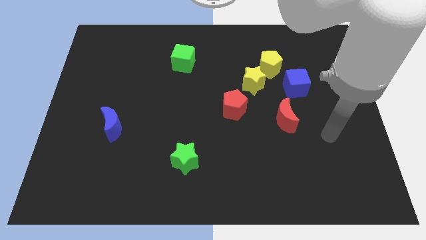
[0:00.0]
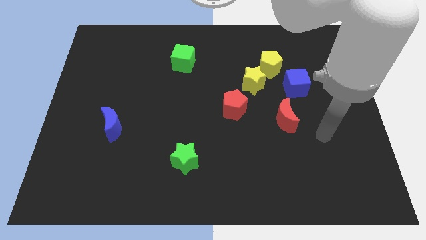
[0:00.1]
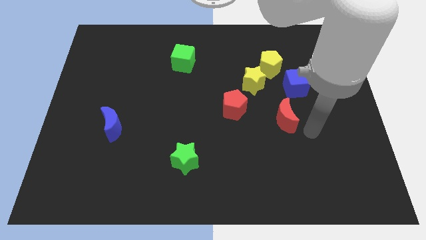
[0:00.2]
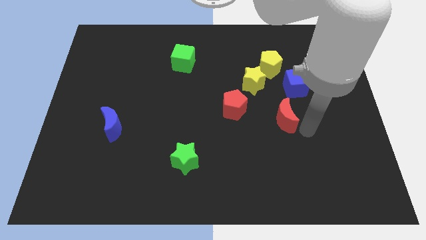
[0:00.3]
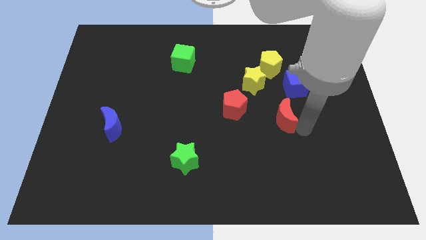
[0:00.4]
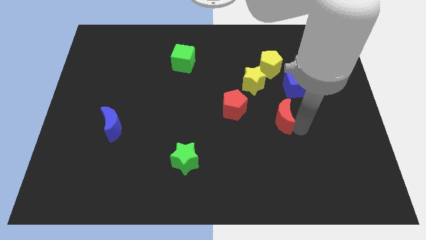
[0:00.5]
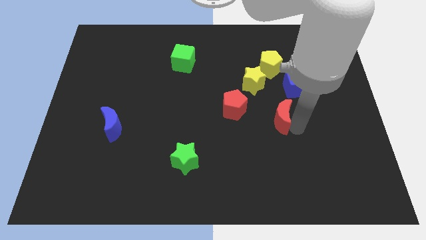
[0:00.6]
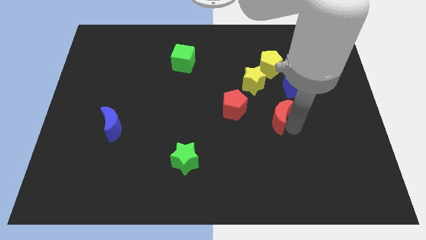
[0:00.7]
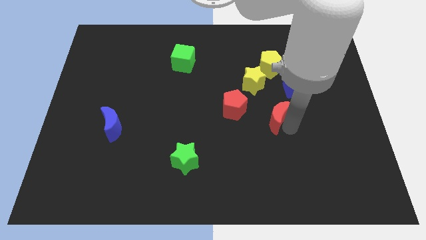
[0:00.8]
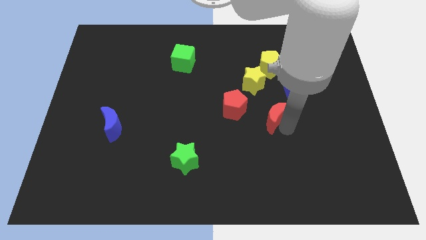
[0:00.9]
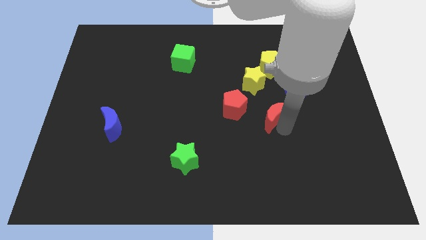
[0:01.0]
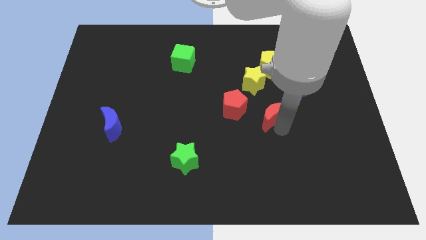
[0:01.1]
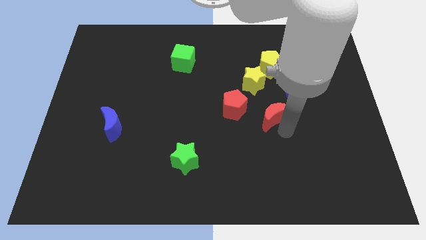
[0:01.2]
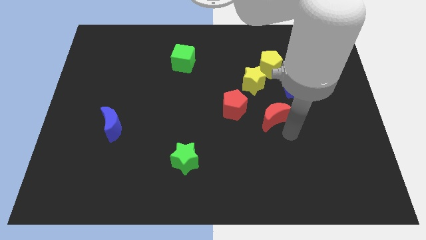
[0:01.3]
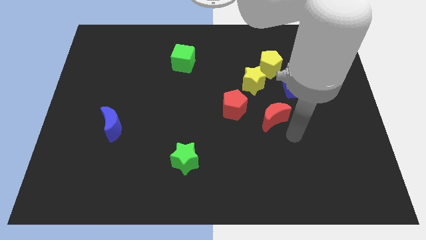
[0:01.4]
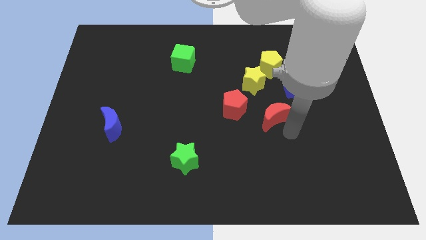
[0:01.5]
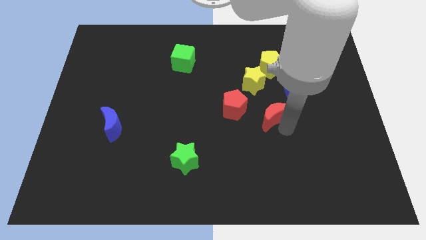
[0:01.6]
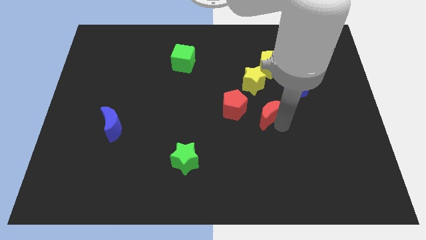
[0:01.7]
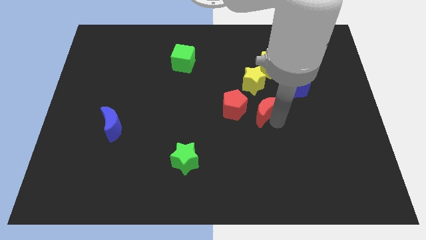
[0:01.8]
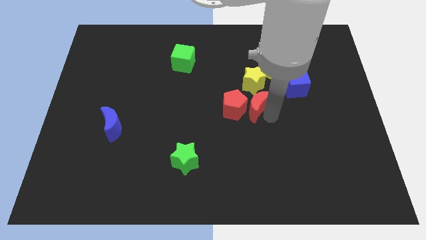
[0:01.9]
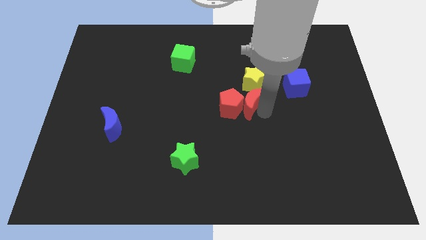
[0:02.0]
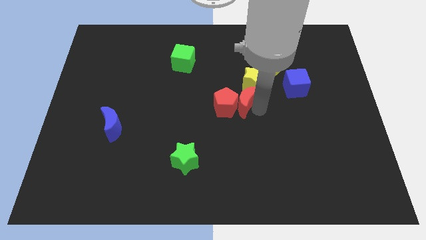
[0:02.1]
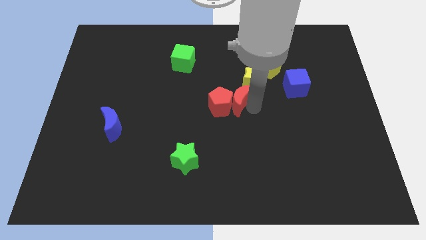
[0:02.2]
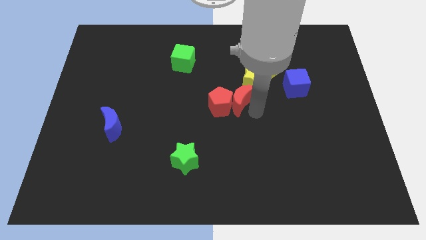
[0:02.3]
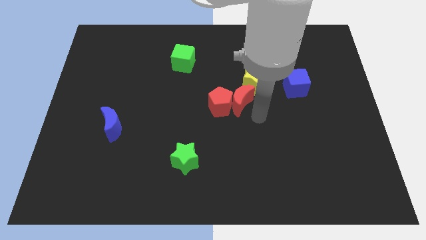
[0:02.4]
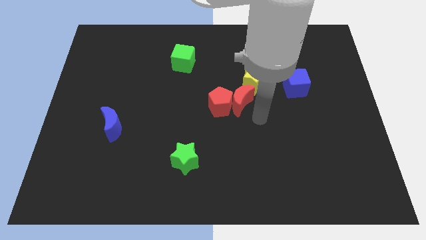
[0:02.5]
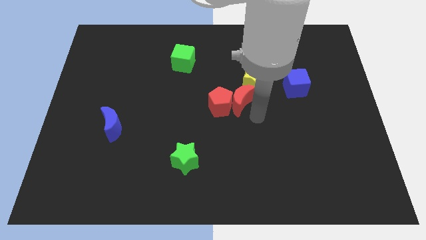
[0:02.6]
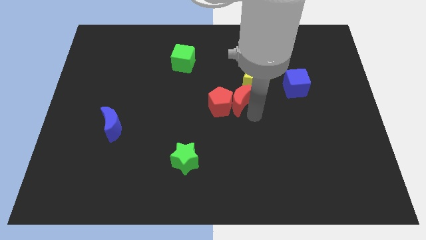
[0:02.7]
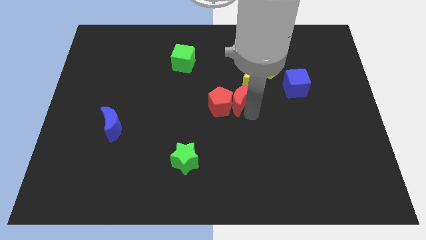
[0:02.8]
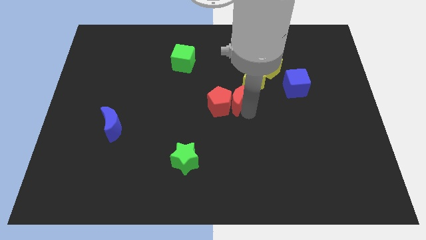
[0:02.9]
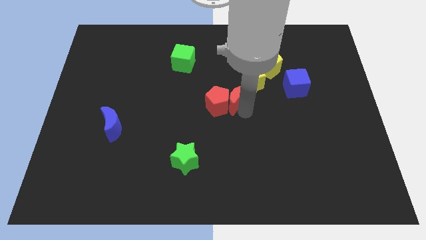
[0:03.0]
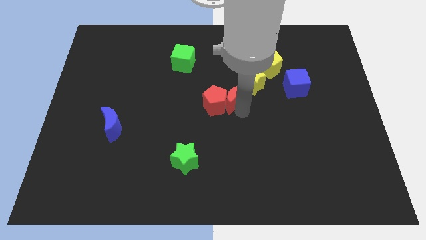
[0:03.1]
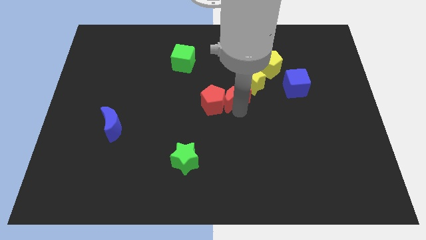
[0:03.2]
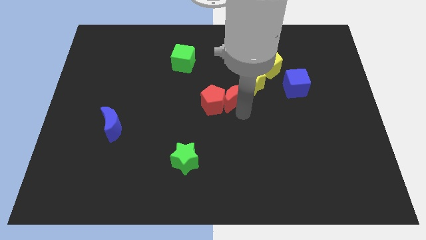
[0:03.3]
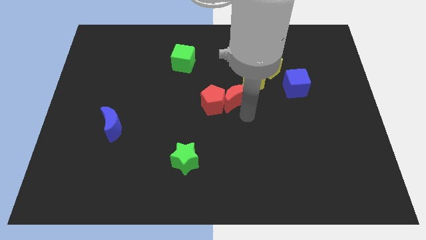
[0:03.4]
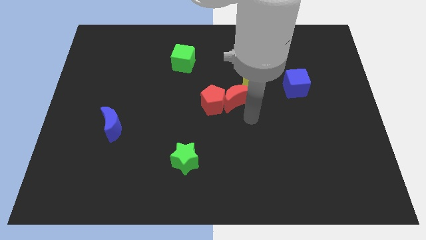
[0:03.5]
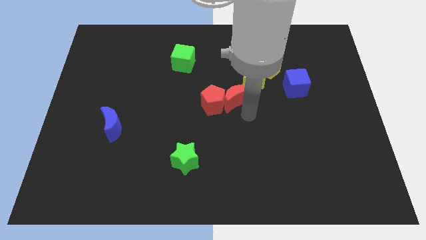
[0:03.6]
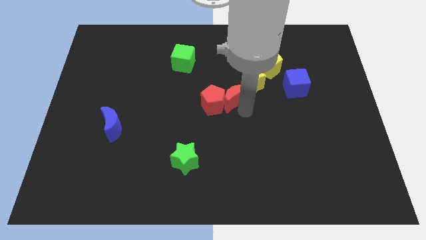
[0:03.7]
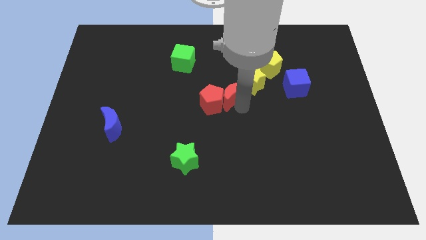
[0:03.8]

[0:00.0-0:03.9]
put the red moon left of the yellow star

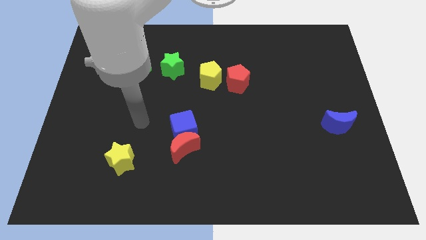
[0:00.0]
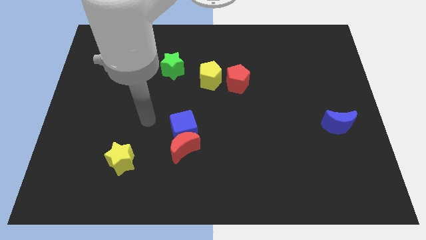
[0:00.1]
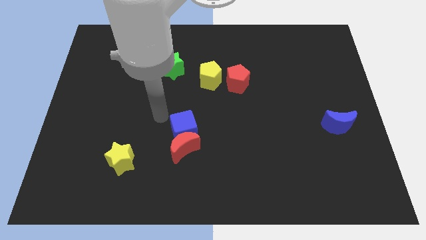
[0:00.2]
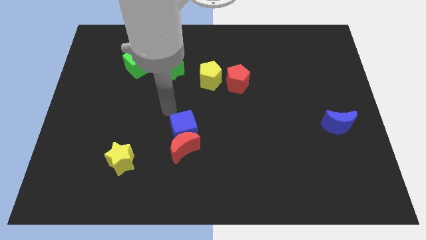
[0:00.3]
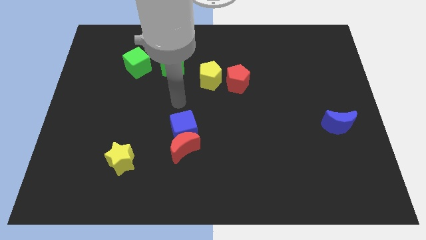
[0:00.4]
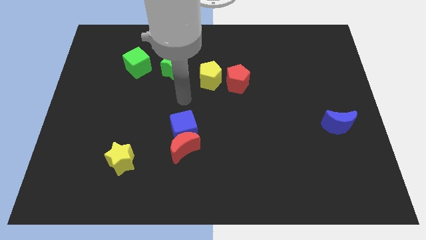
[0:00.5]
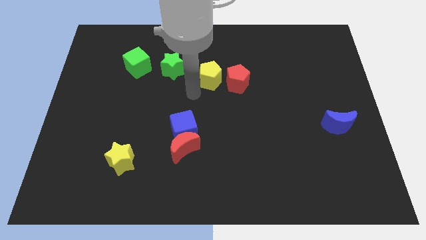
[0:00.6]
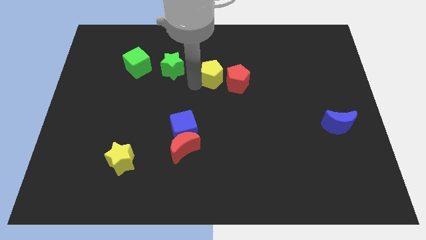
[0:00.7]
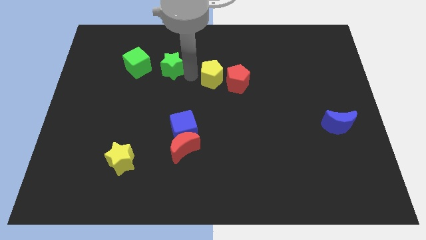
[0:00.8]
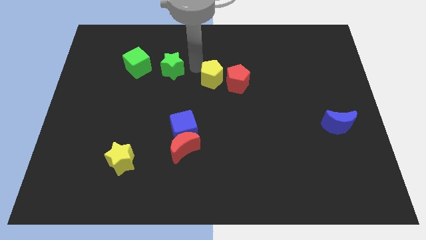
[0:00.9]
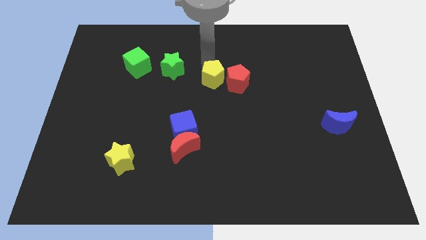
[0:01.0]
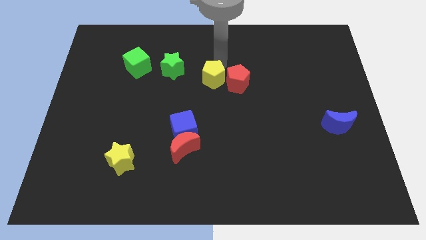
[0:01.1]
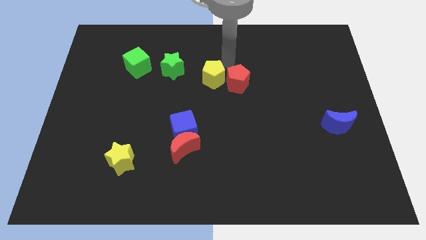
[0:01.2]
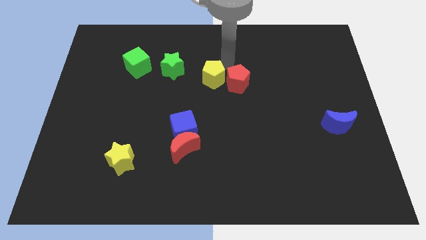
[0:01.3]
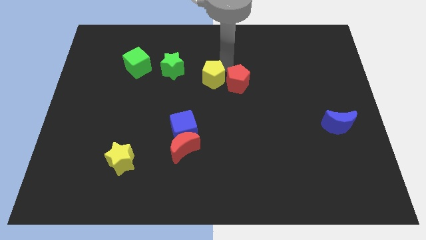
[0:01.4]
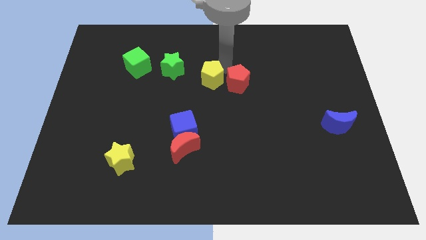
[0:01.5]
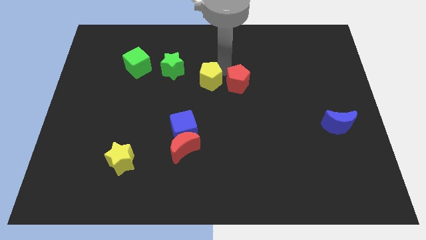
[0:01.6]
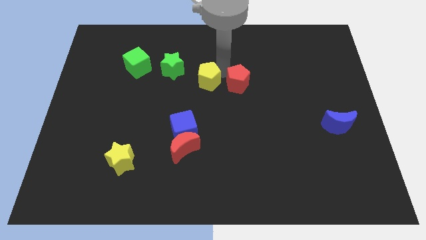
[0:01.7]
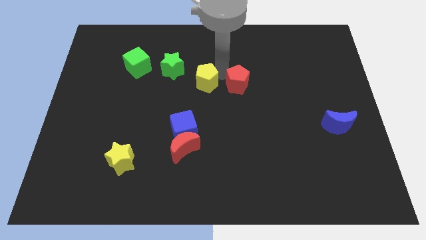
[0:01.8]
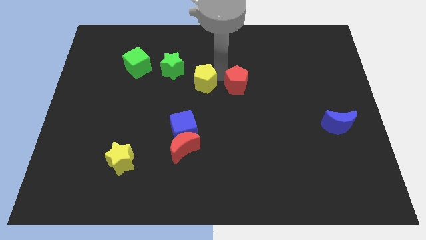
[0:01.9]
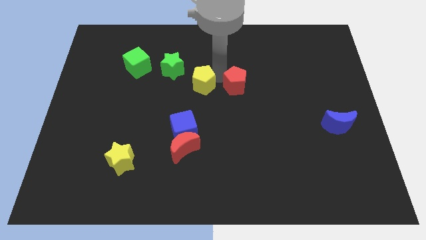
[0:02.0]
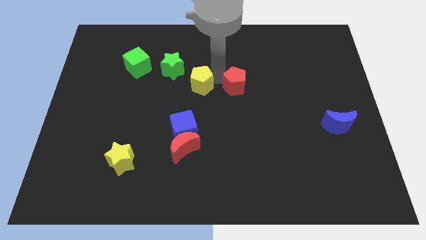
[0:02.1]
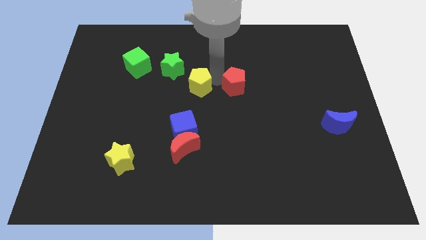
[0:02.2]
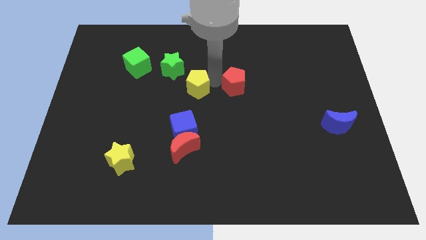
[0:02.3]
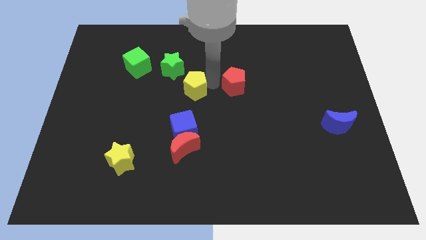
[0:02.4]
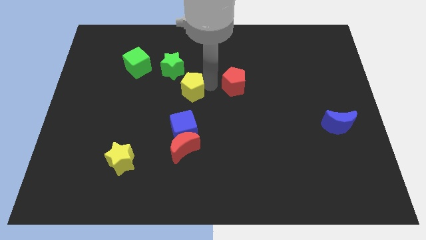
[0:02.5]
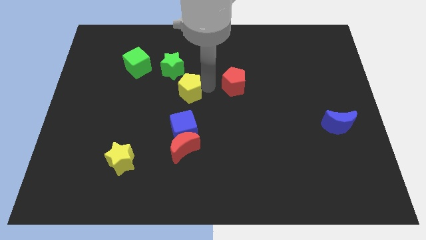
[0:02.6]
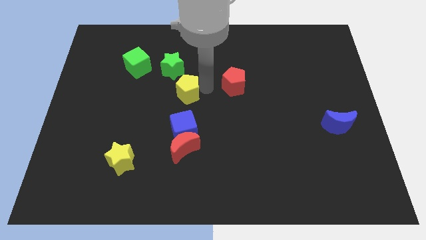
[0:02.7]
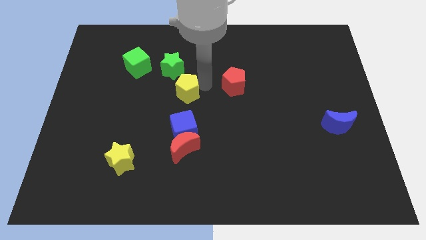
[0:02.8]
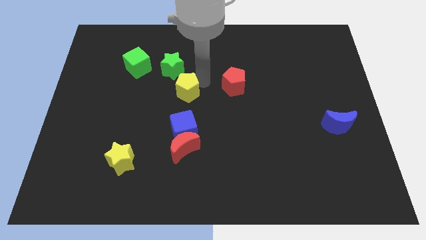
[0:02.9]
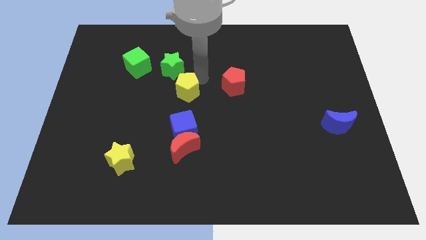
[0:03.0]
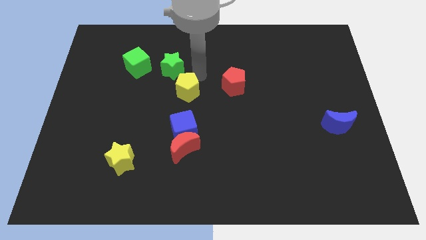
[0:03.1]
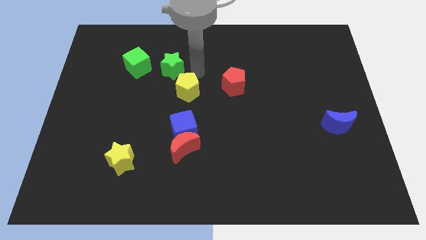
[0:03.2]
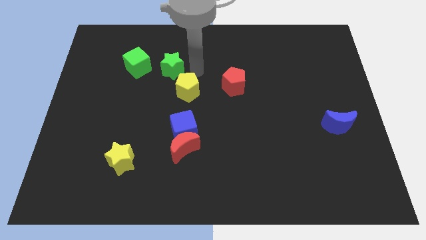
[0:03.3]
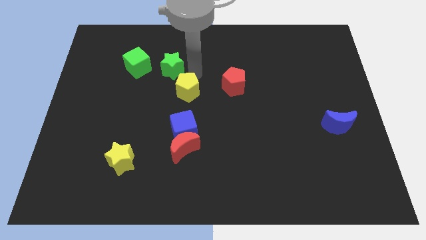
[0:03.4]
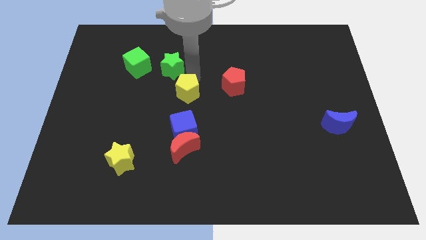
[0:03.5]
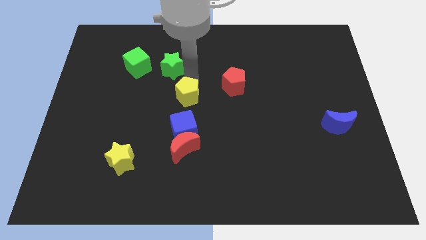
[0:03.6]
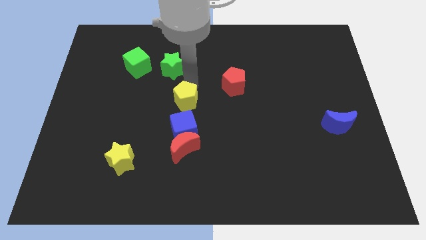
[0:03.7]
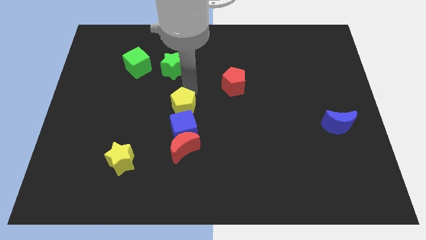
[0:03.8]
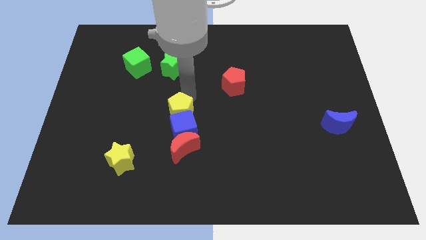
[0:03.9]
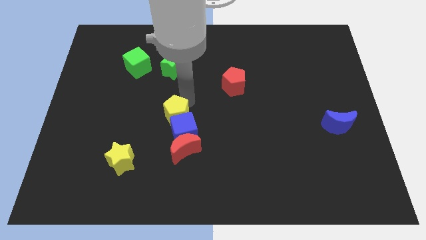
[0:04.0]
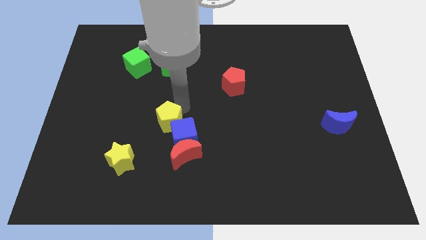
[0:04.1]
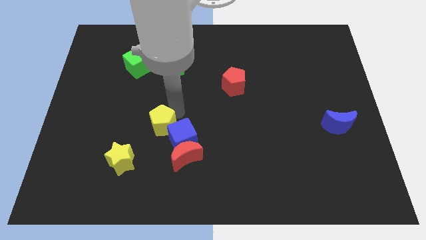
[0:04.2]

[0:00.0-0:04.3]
move the yellow pentagon to the top right of the yellow star
